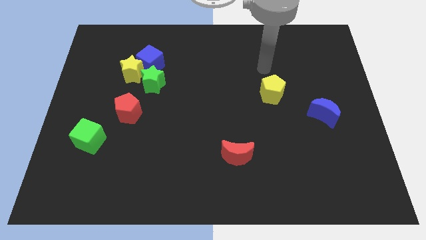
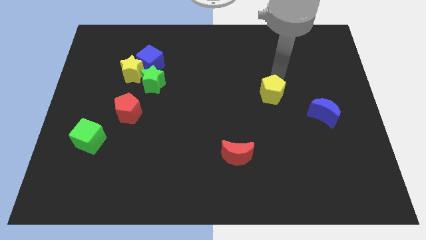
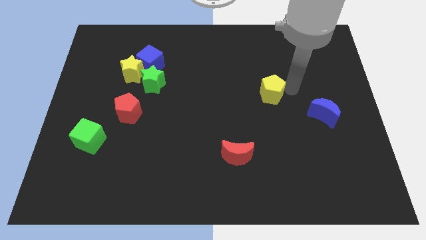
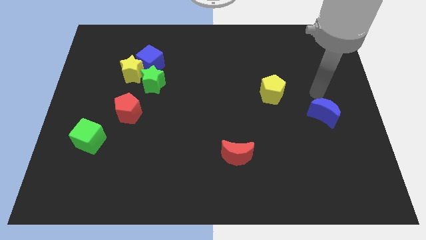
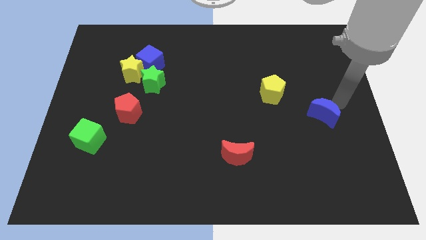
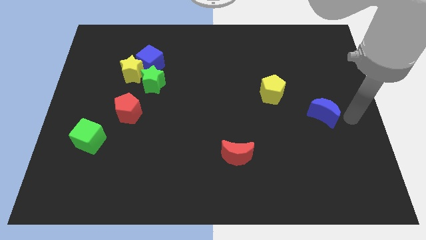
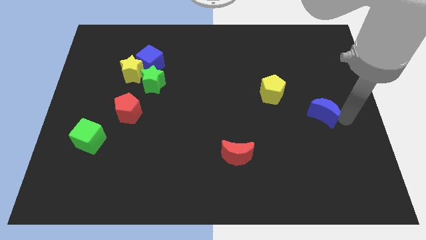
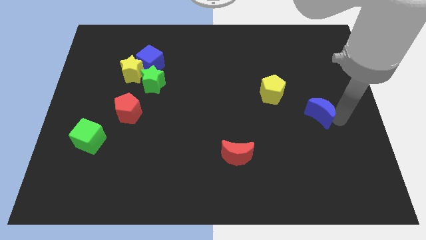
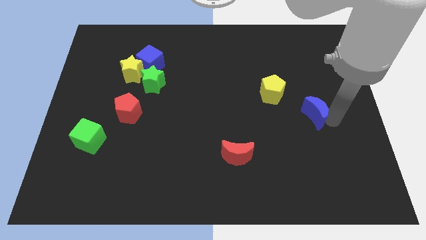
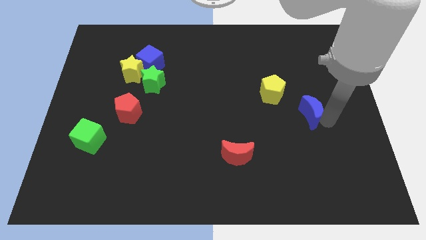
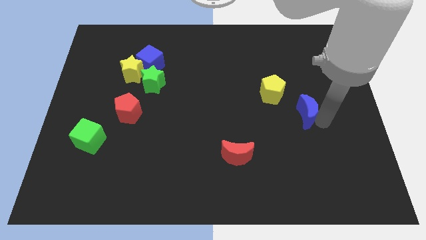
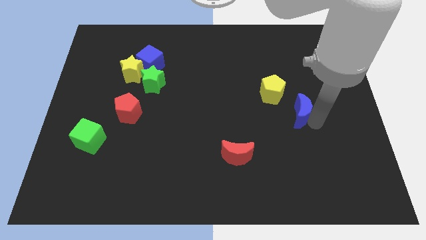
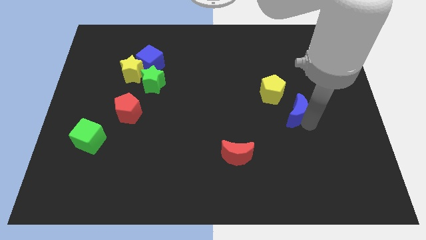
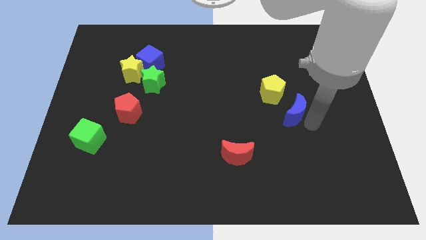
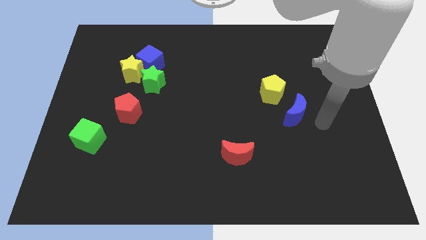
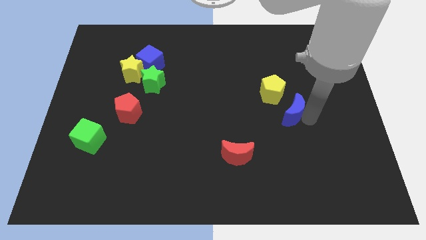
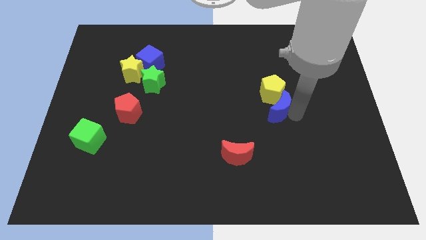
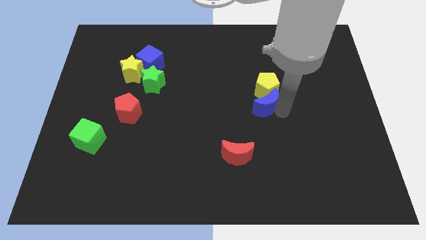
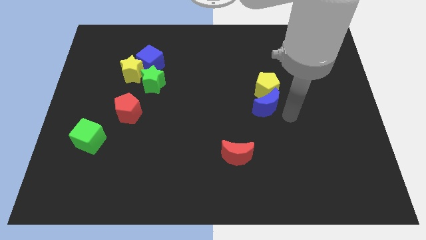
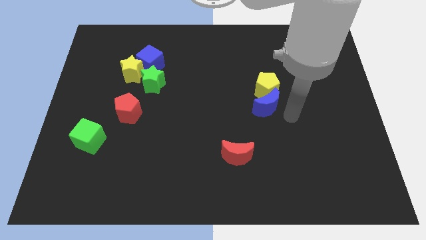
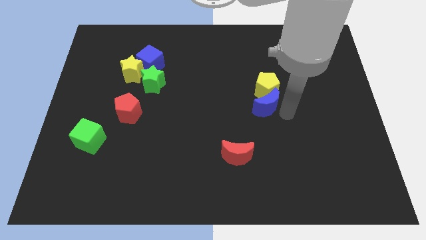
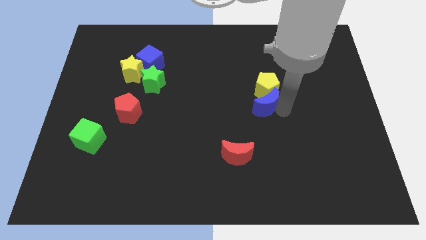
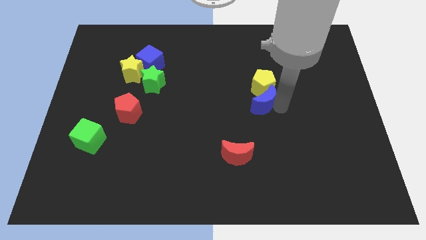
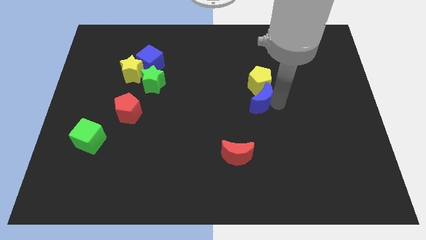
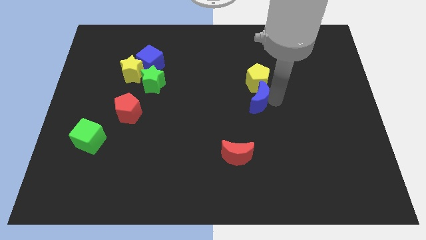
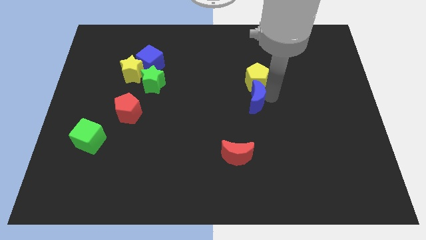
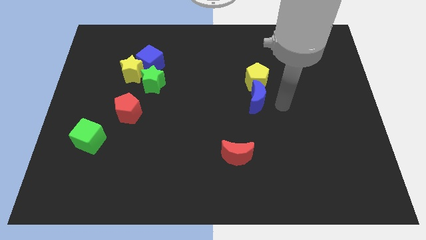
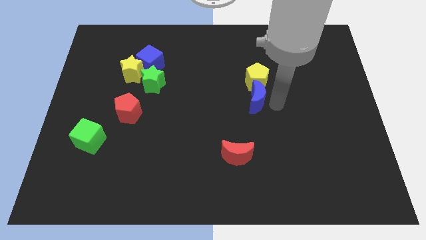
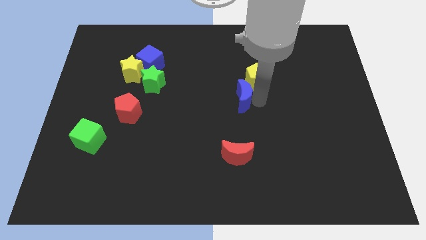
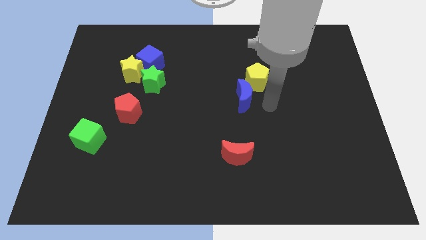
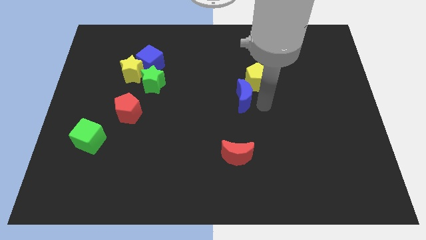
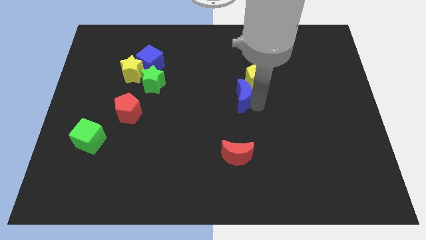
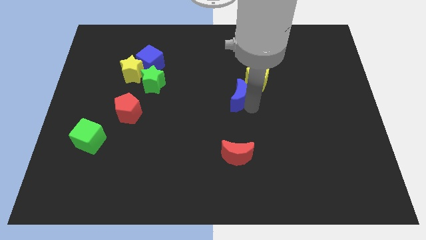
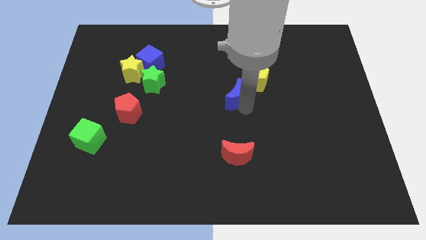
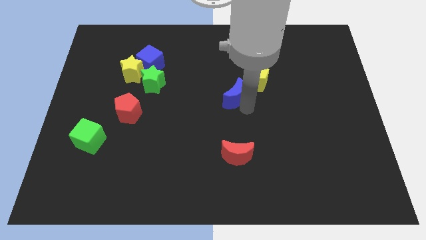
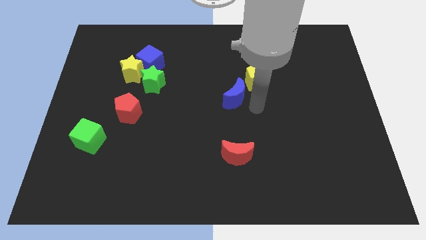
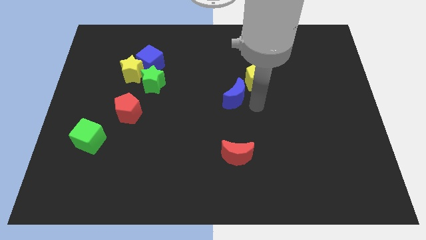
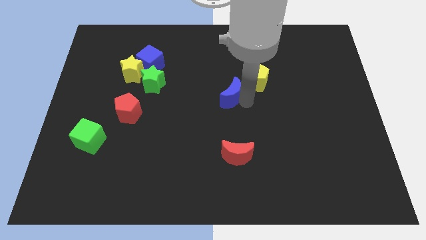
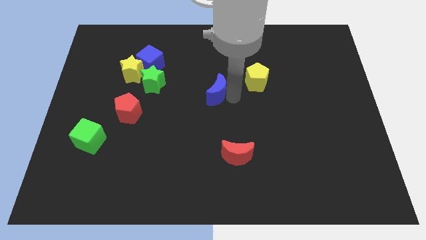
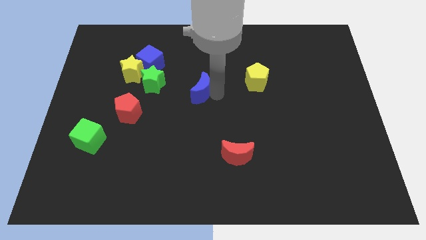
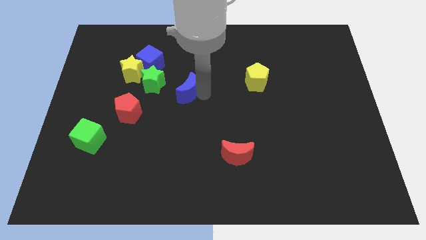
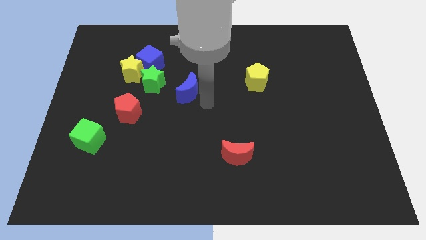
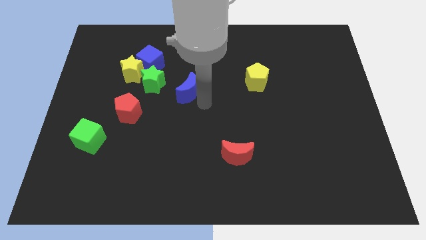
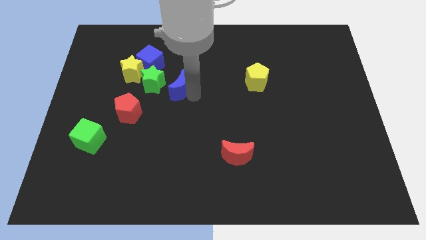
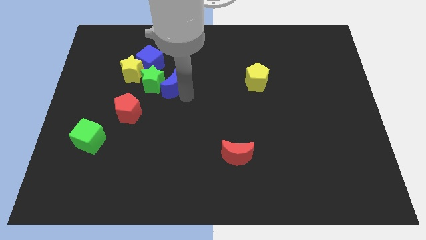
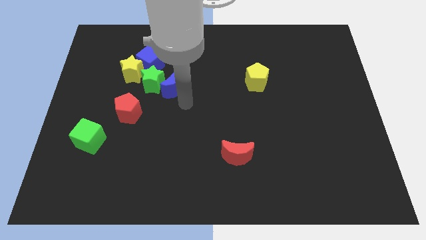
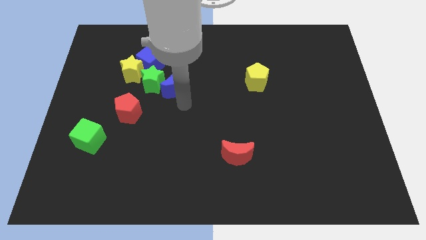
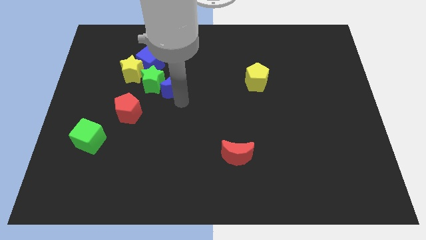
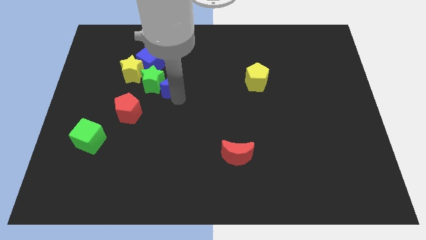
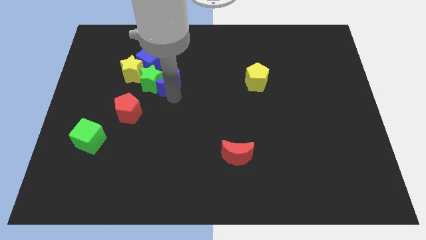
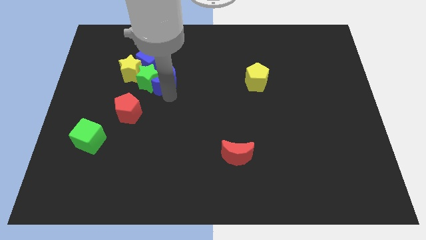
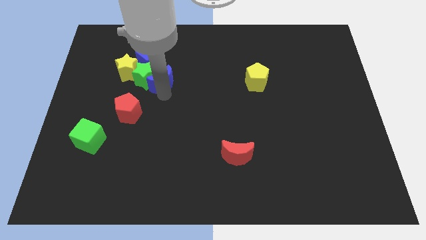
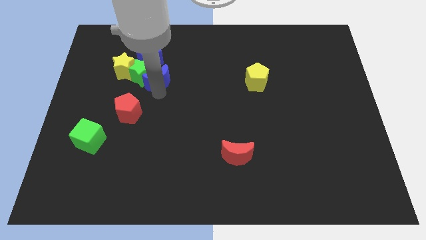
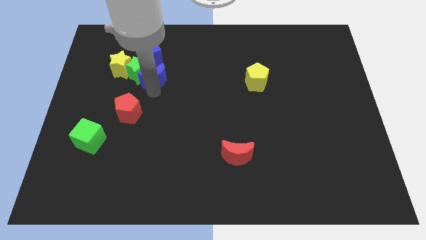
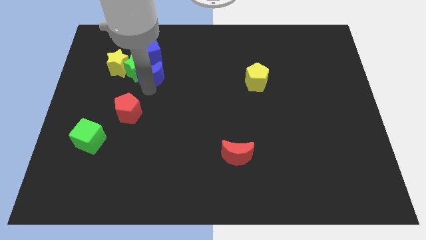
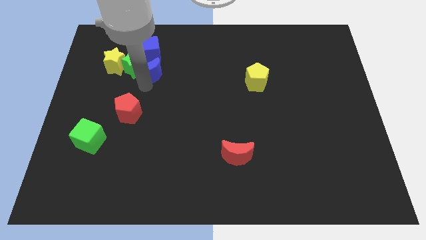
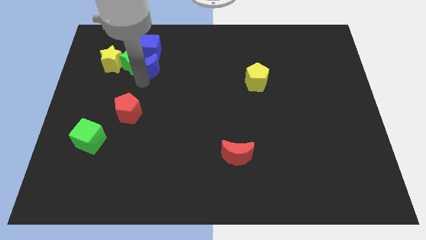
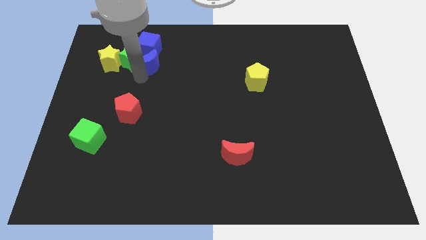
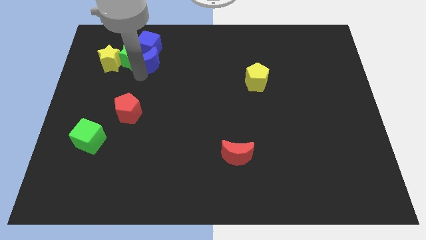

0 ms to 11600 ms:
move the blue moon next to the blue cube

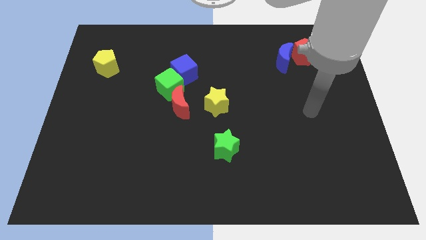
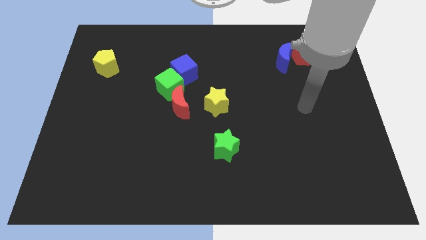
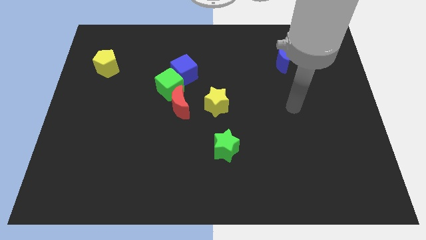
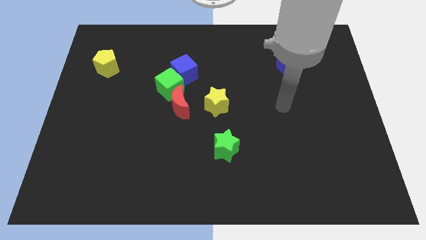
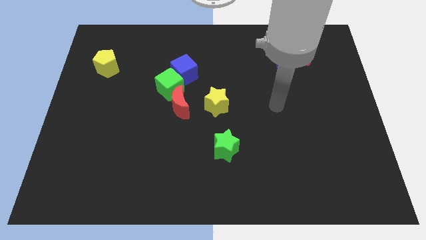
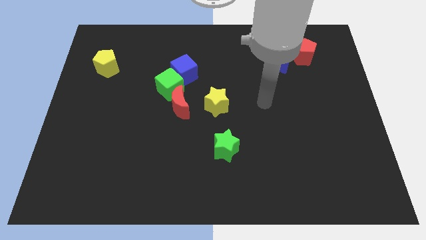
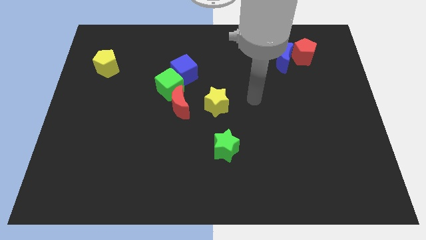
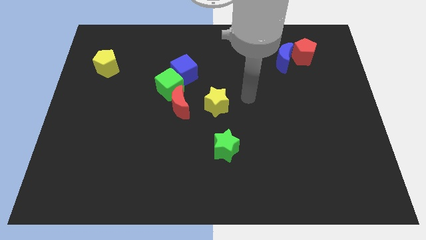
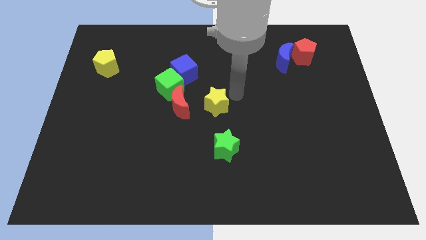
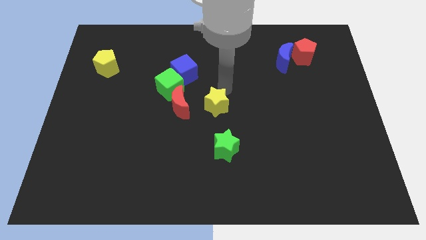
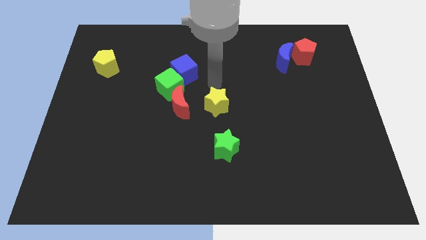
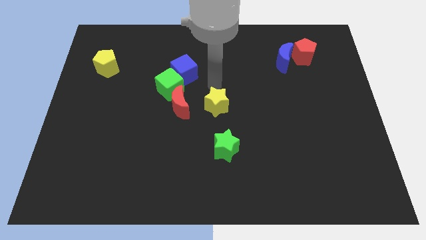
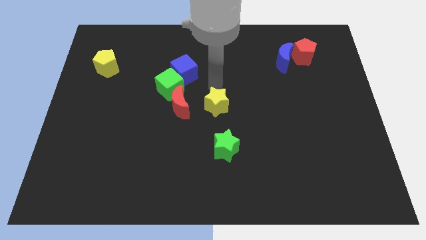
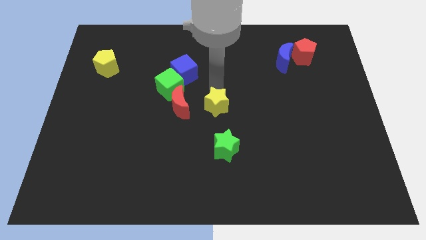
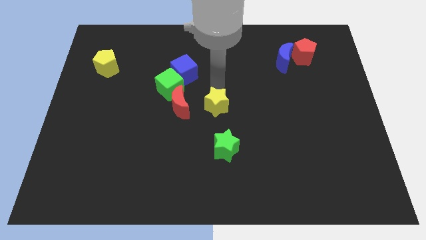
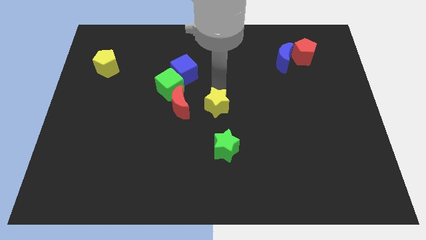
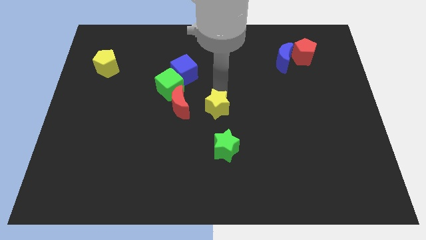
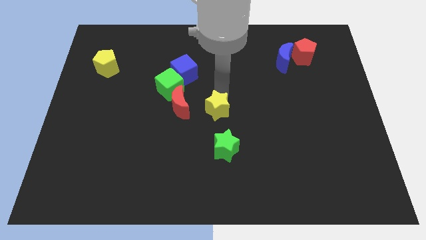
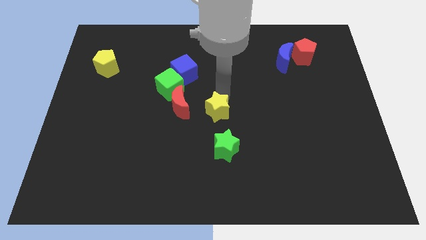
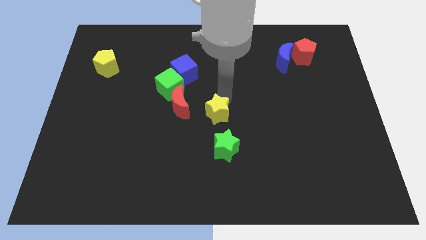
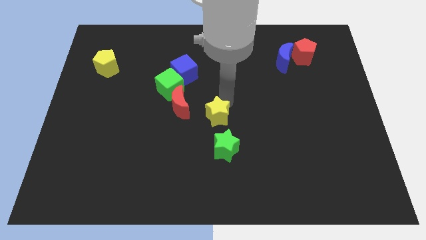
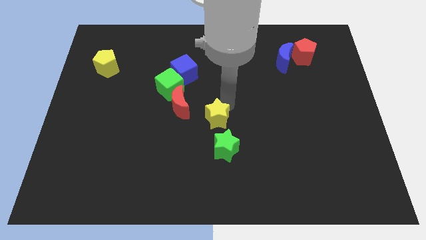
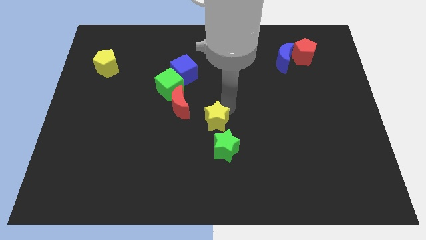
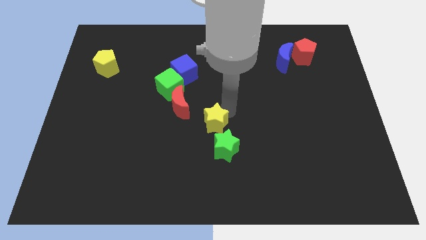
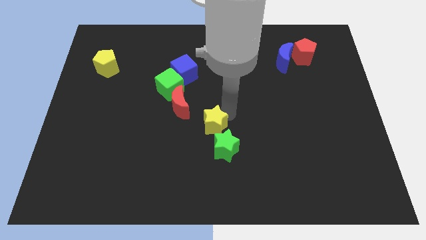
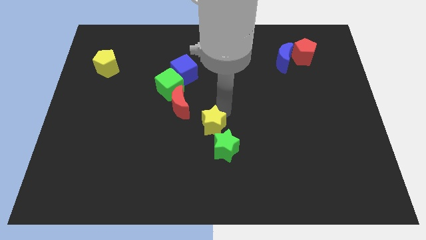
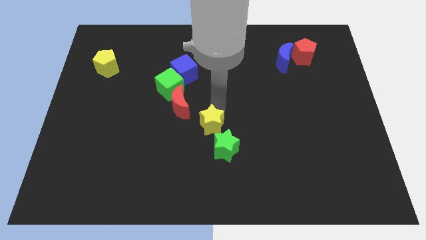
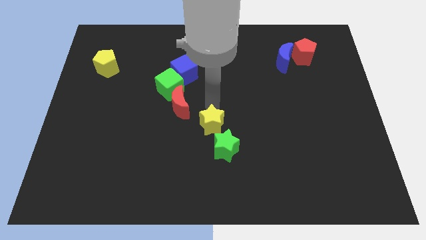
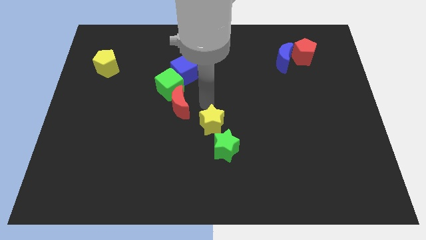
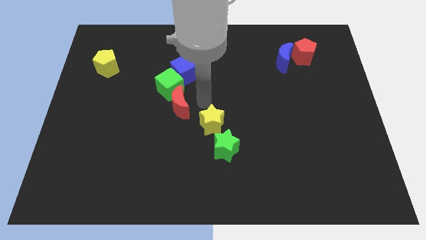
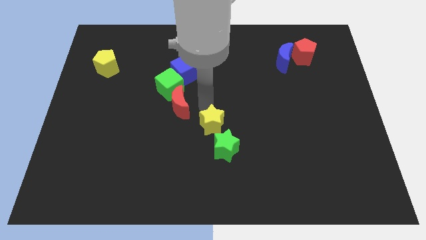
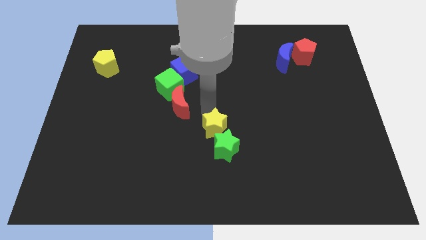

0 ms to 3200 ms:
push the yellow star next to the green star
